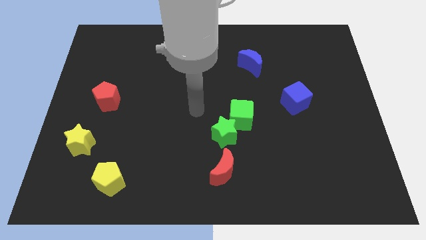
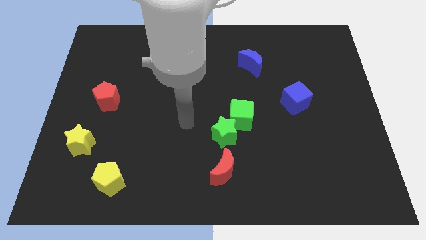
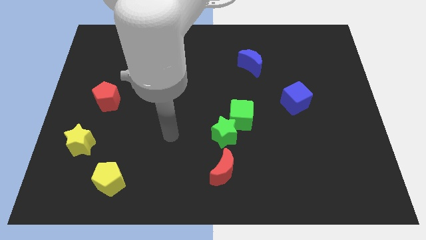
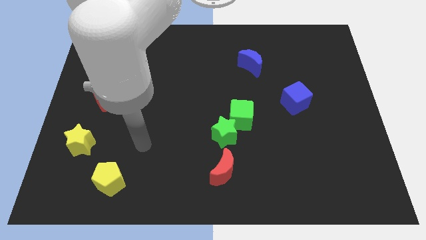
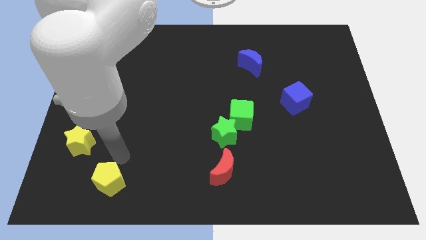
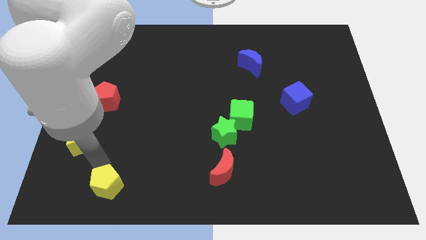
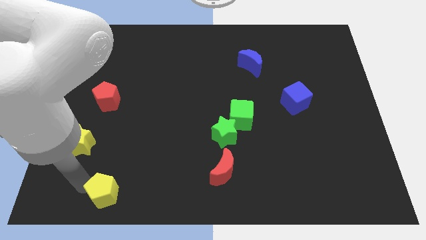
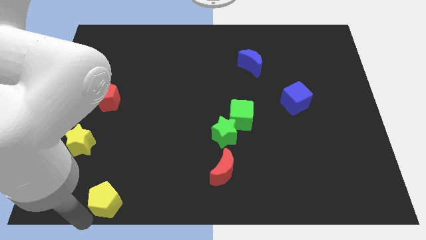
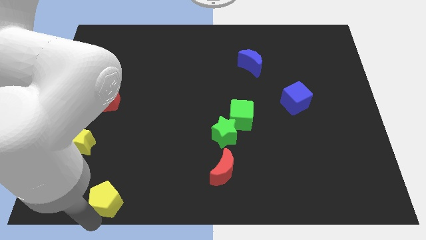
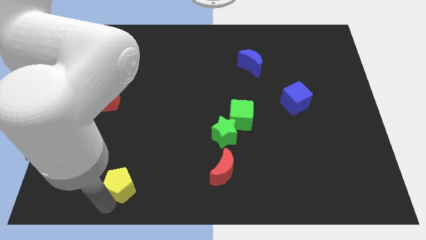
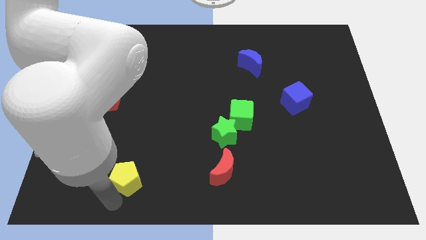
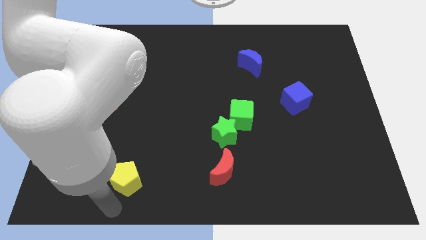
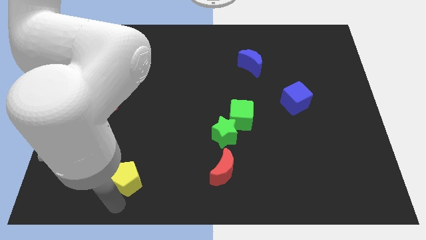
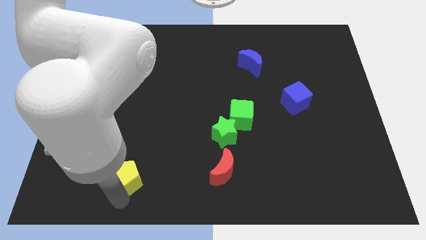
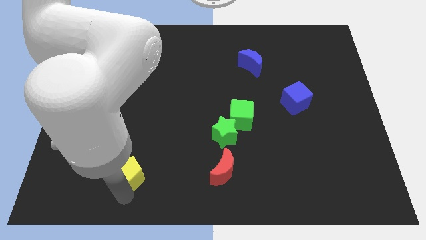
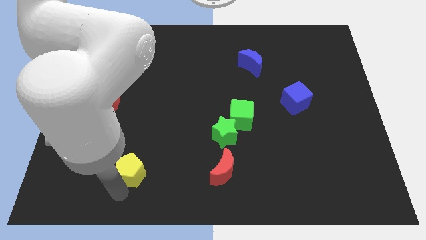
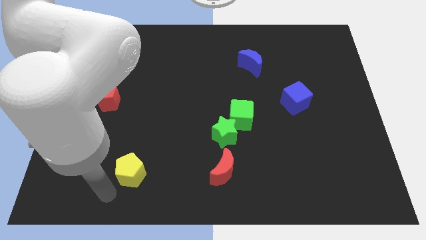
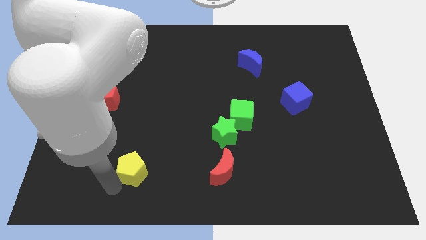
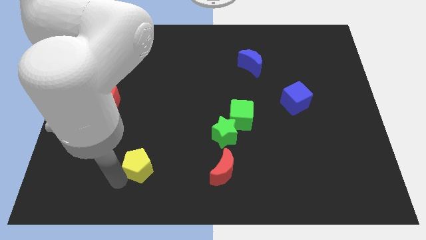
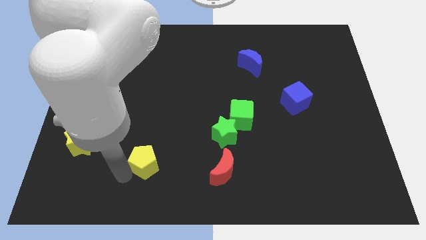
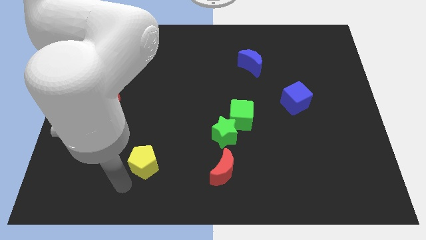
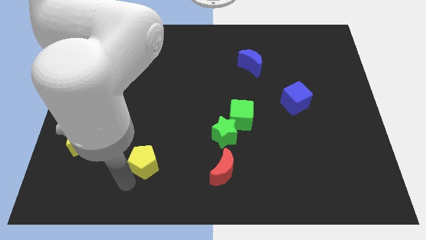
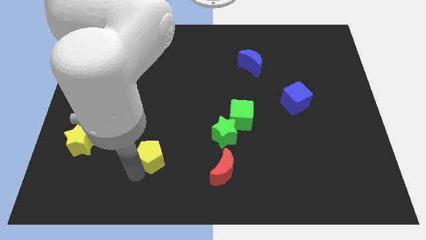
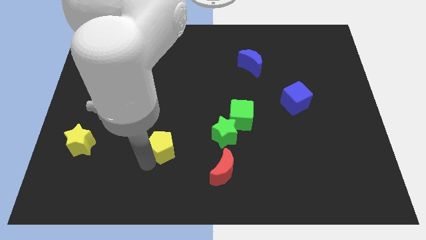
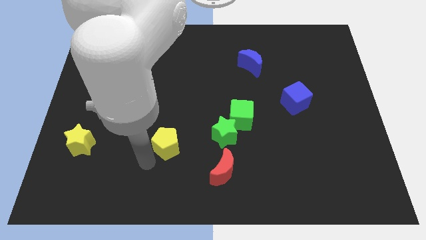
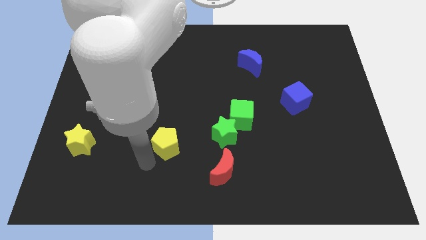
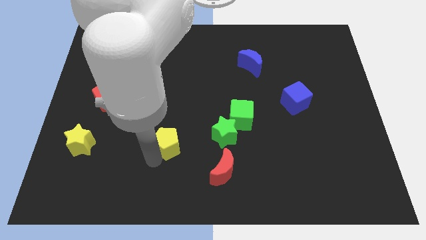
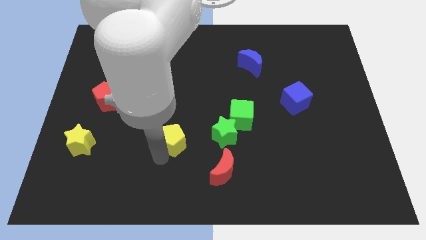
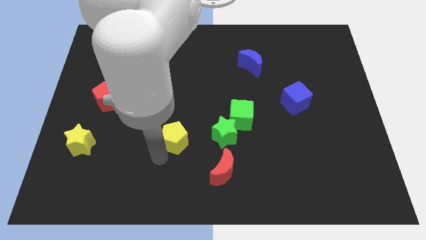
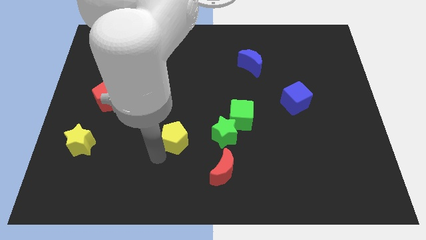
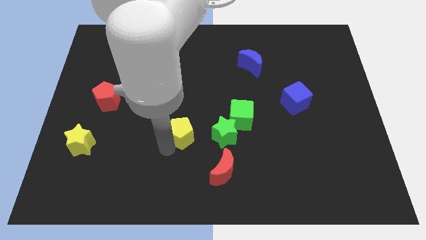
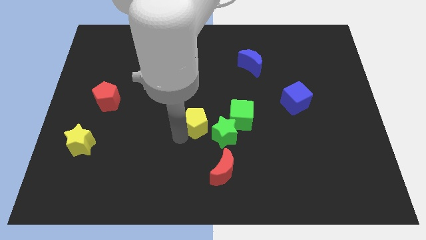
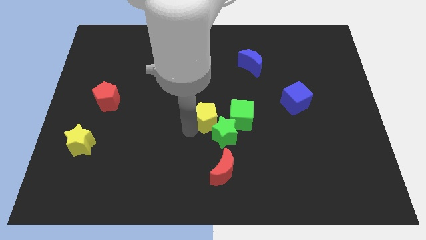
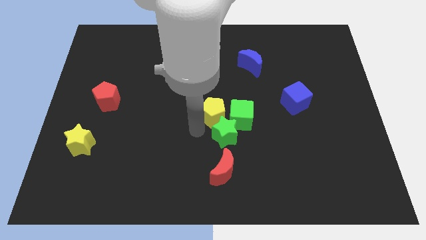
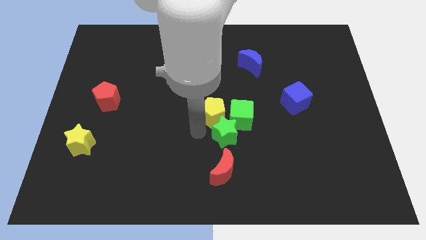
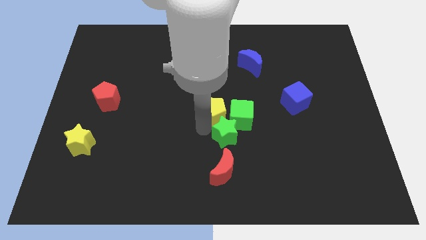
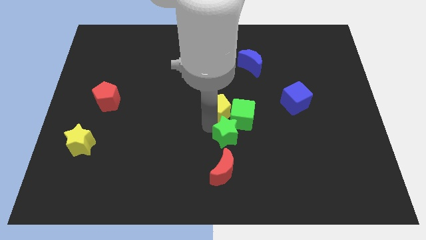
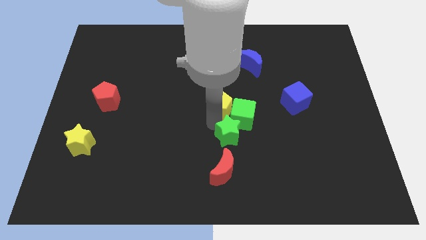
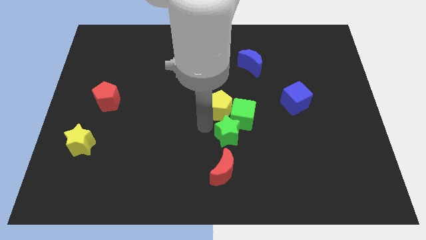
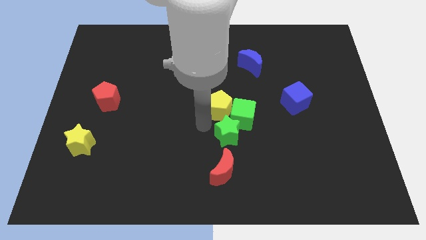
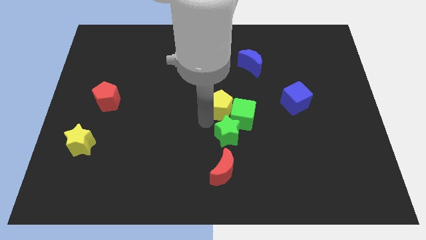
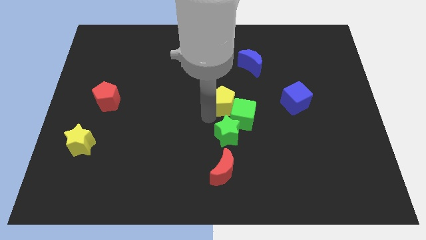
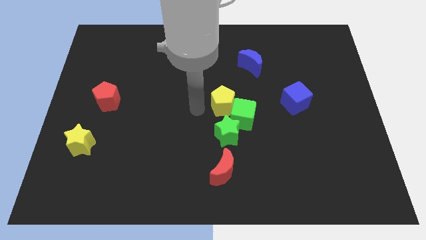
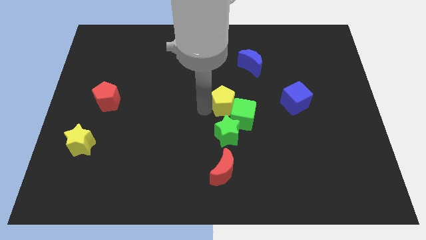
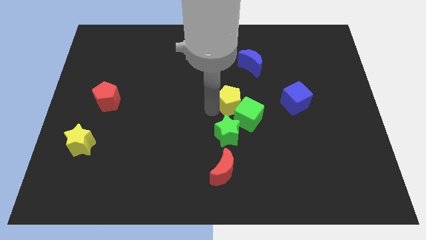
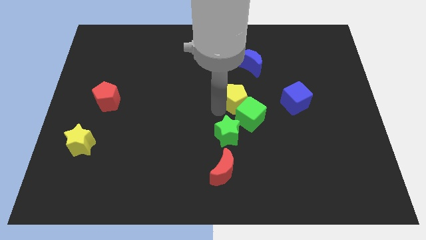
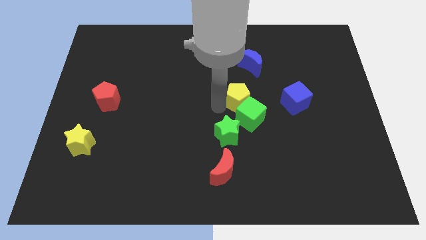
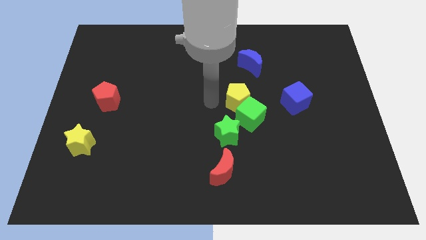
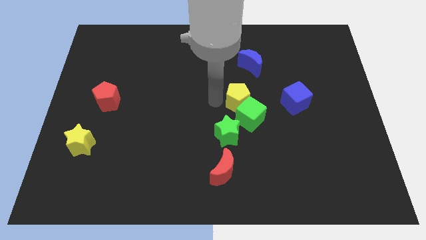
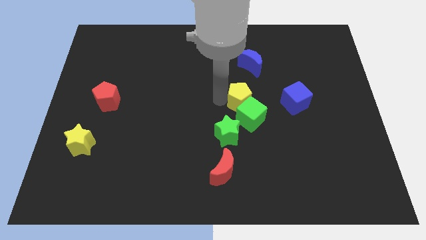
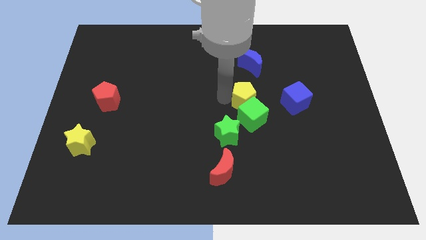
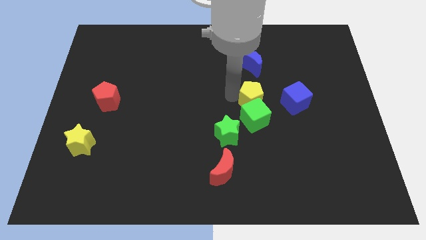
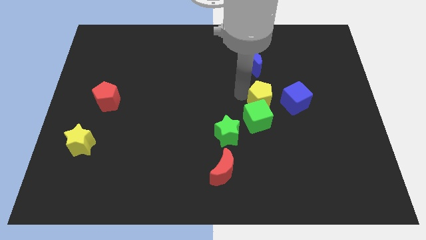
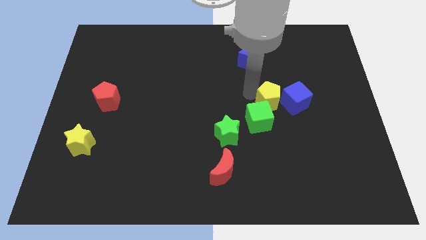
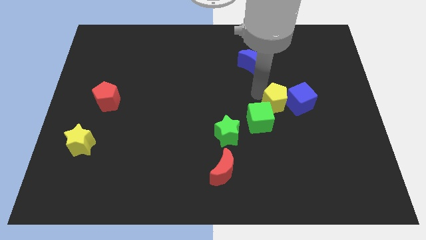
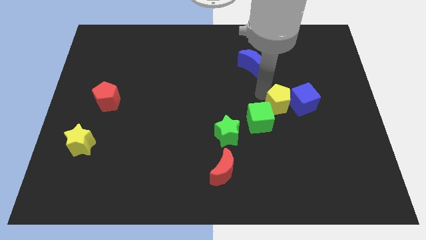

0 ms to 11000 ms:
push the yellow pentagon to the right side of the green cube

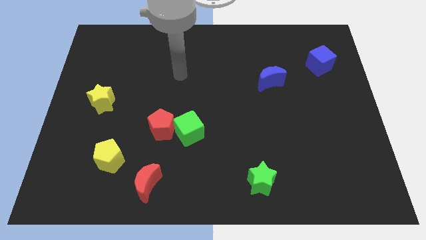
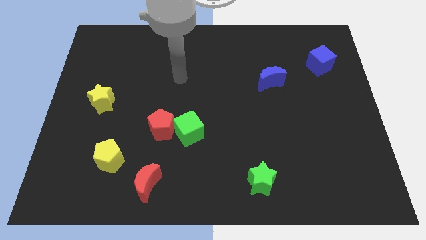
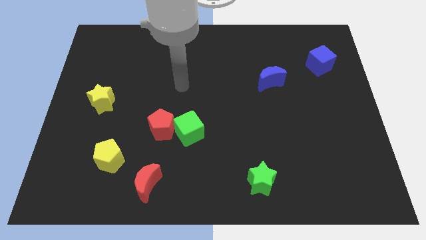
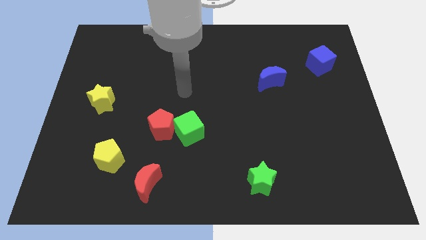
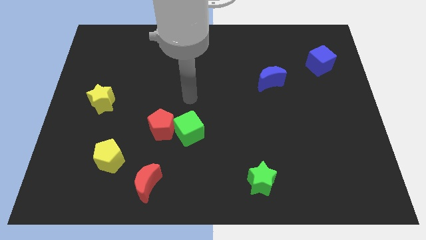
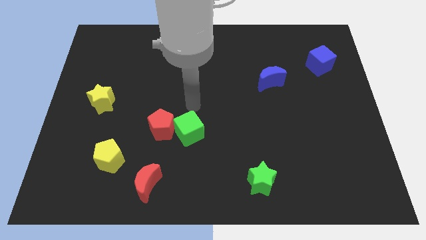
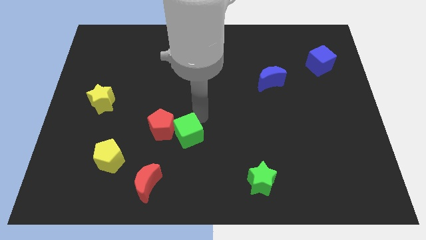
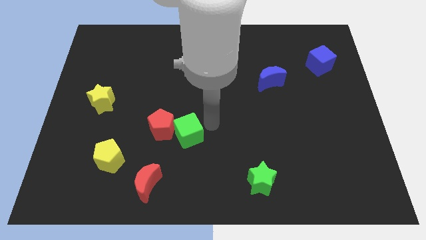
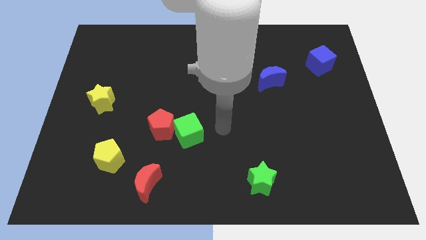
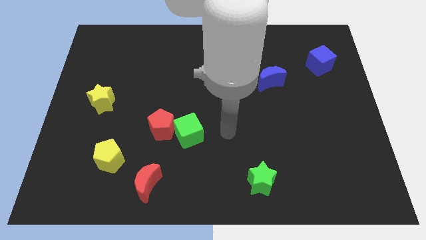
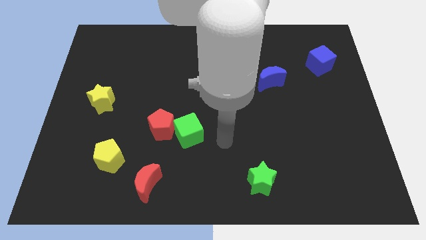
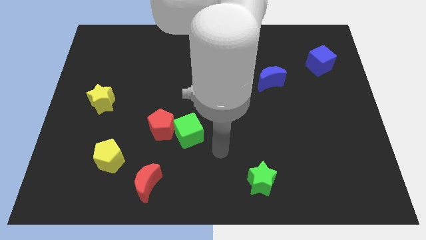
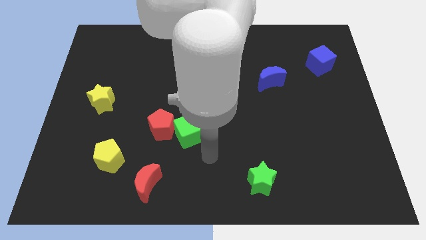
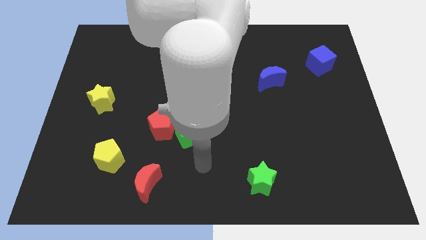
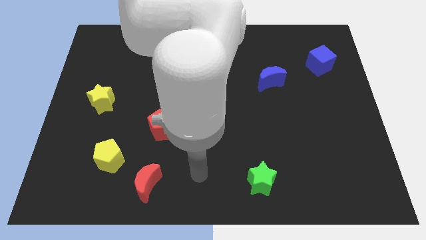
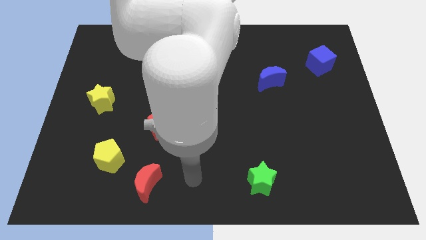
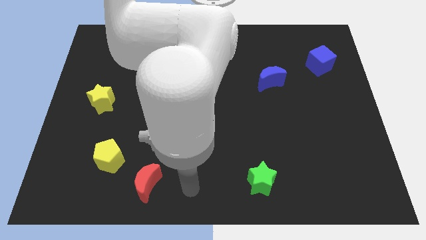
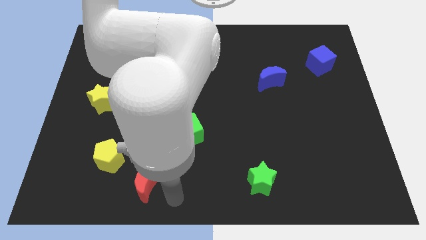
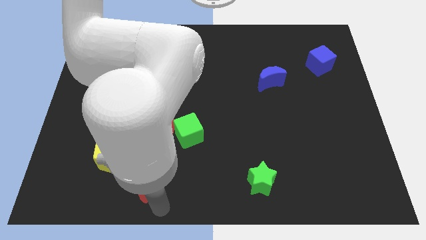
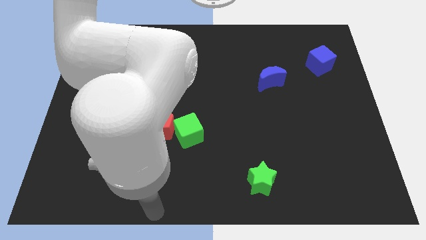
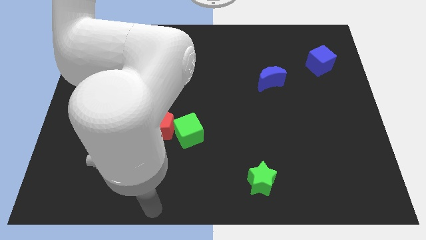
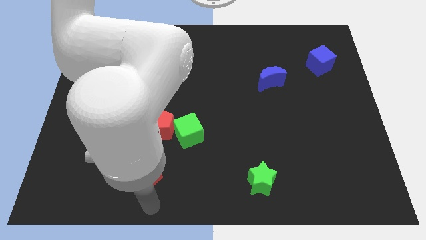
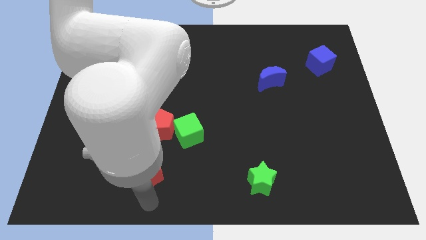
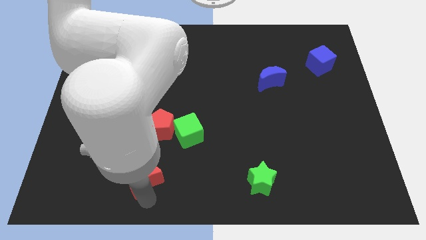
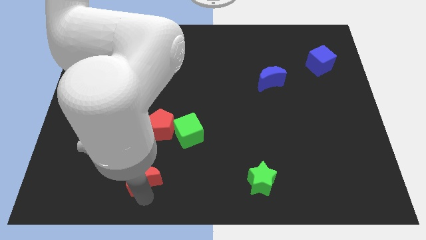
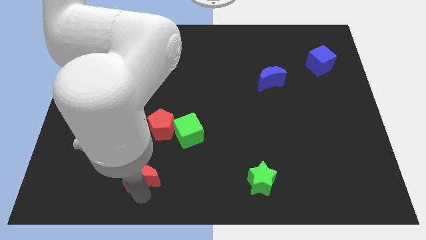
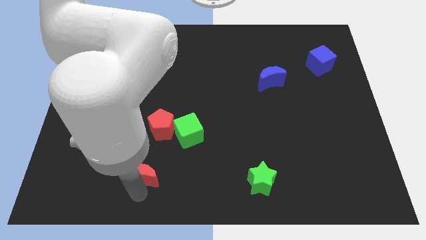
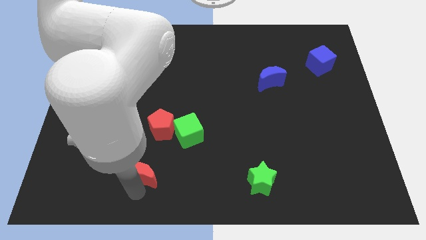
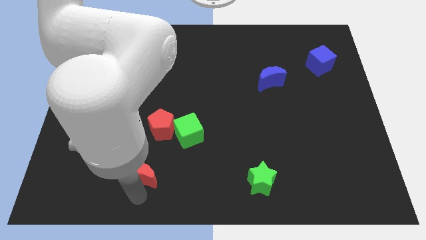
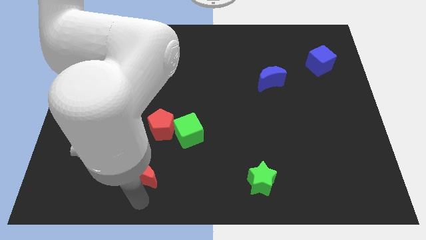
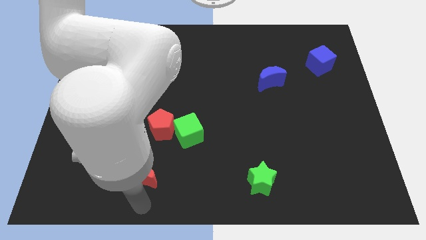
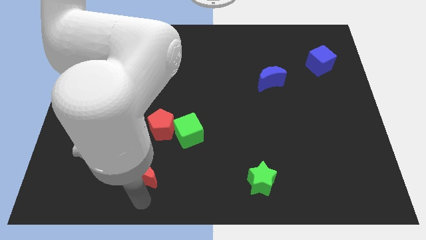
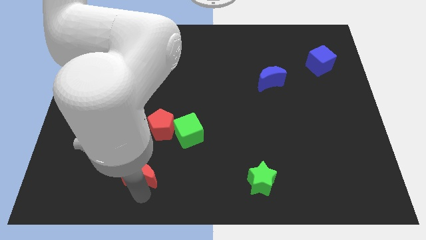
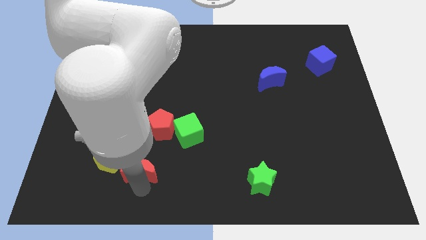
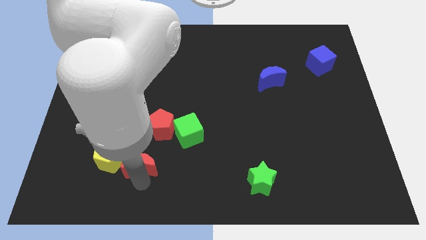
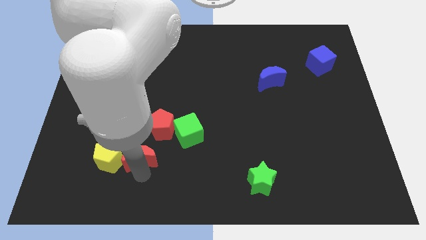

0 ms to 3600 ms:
slide the red moon to the top right side of the yellow pentagon
